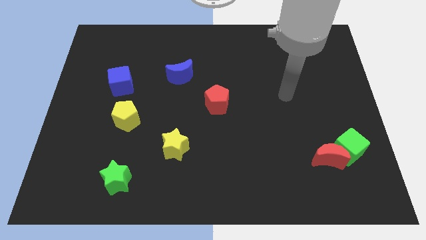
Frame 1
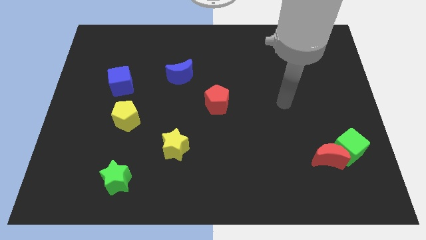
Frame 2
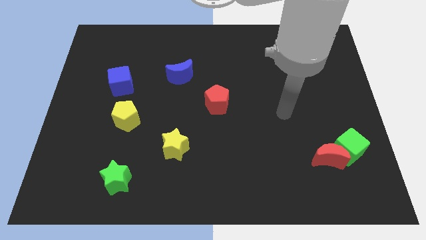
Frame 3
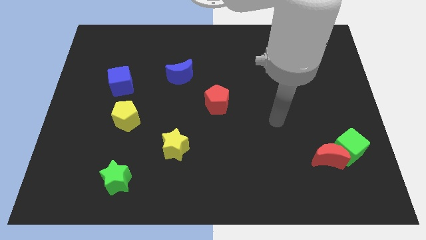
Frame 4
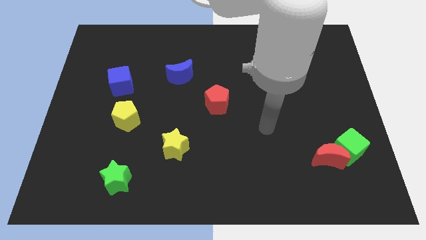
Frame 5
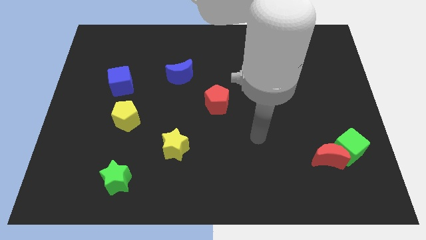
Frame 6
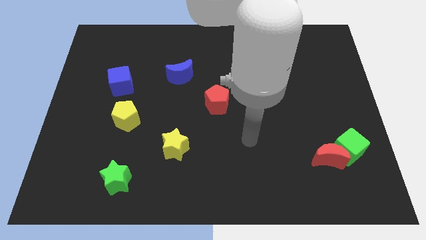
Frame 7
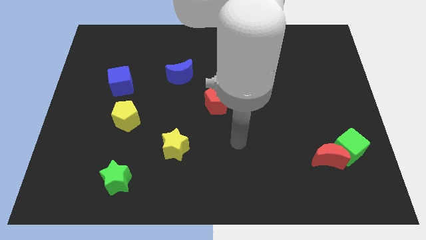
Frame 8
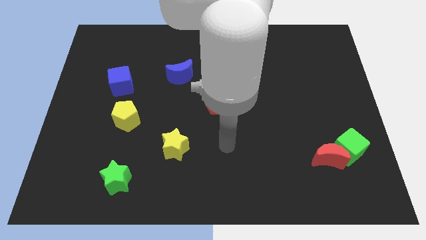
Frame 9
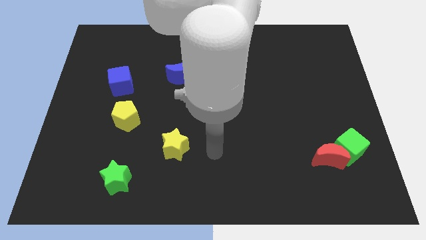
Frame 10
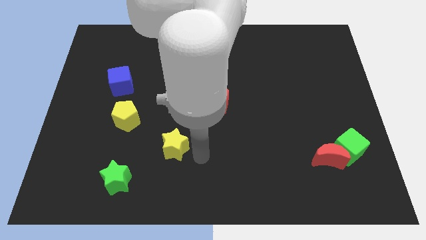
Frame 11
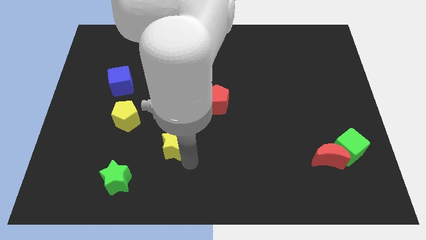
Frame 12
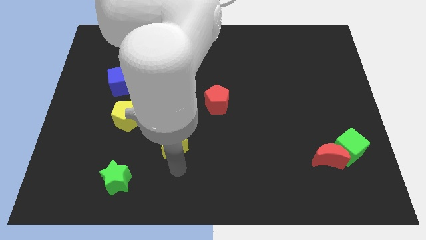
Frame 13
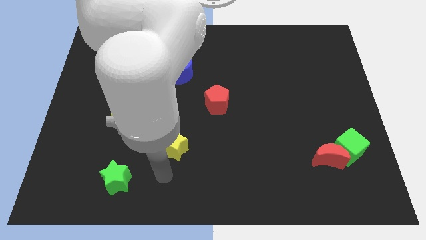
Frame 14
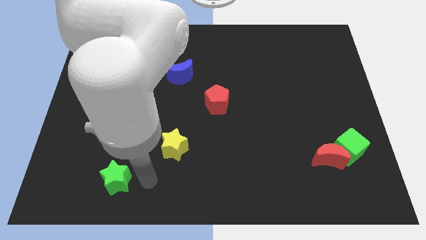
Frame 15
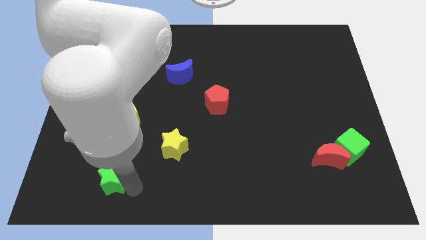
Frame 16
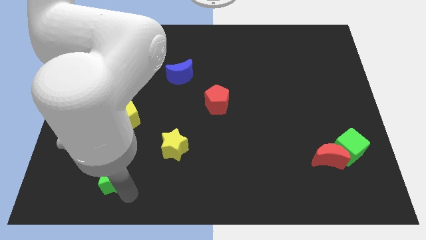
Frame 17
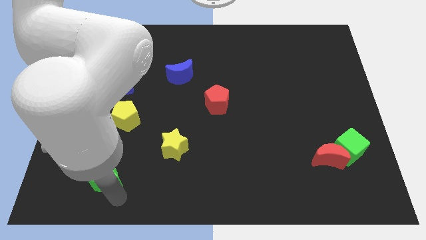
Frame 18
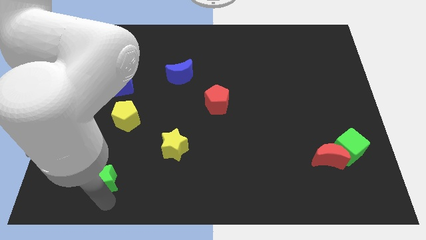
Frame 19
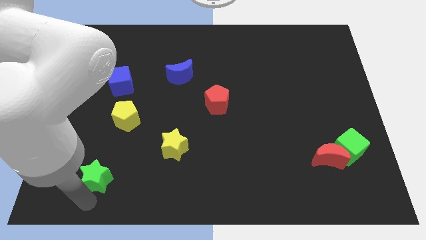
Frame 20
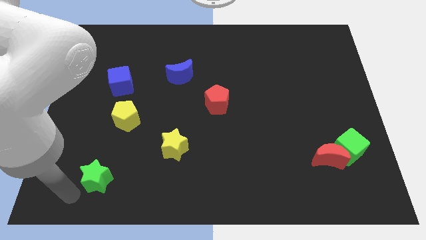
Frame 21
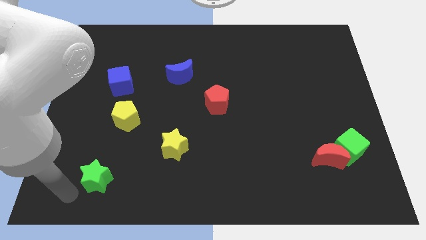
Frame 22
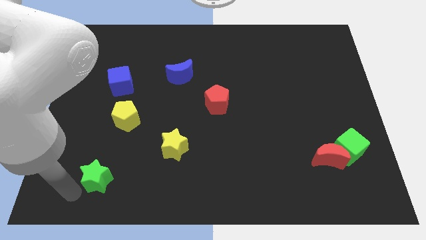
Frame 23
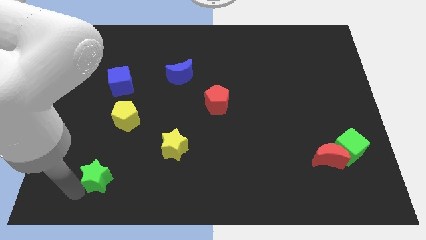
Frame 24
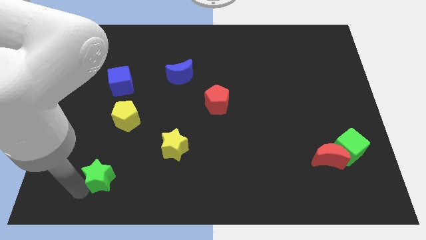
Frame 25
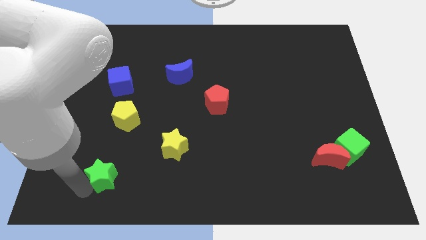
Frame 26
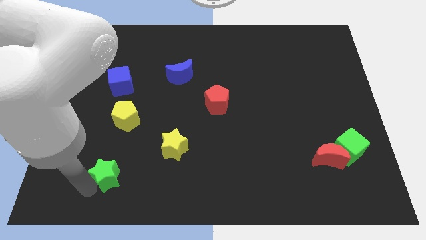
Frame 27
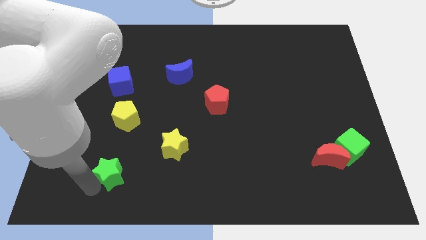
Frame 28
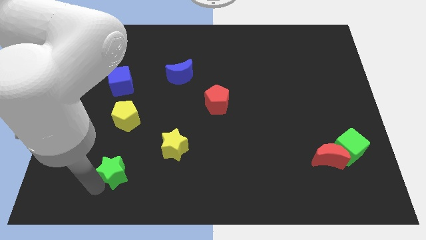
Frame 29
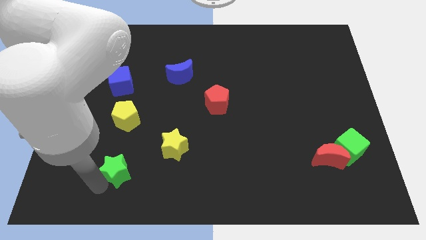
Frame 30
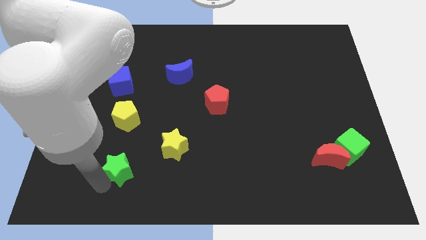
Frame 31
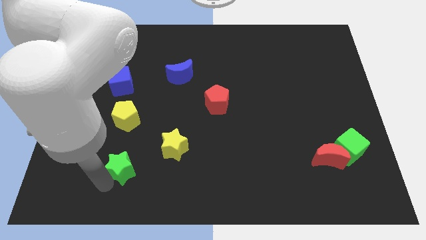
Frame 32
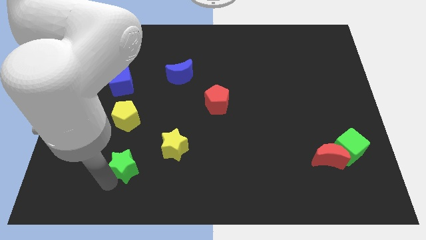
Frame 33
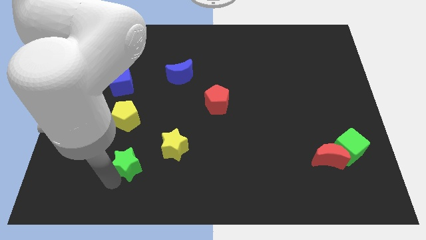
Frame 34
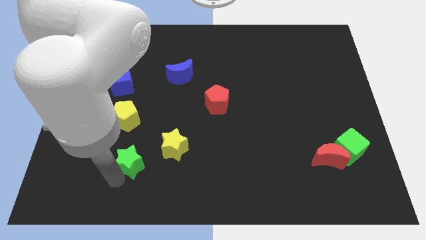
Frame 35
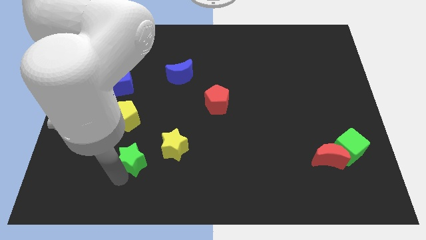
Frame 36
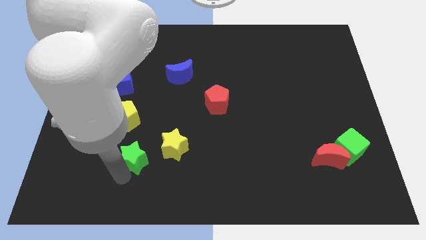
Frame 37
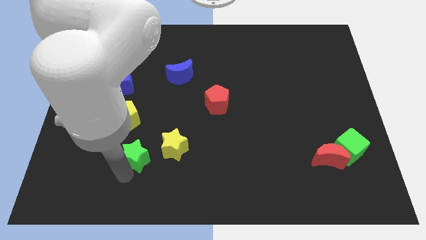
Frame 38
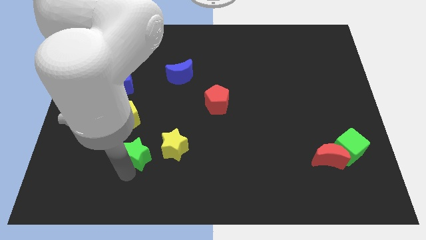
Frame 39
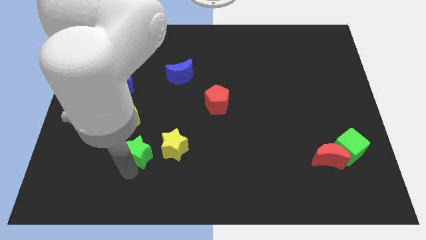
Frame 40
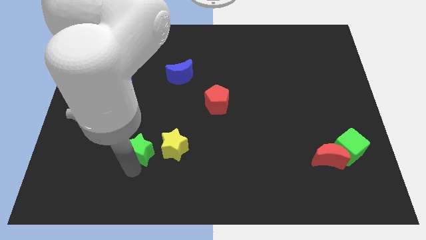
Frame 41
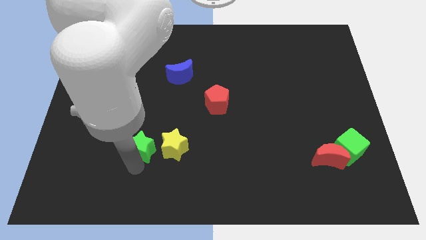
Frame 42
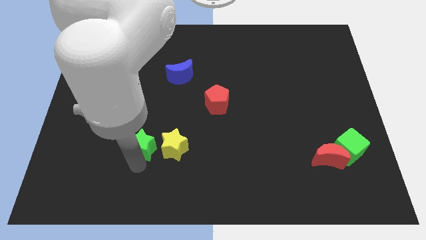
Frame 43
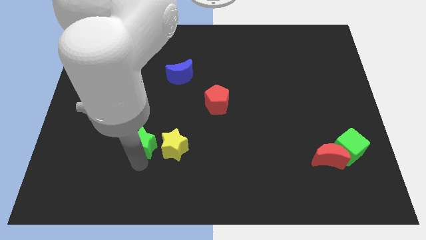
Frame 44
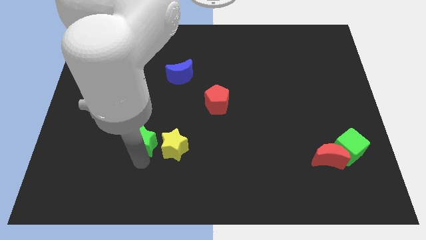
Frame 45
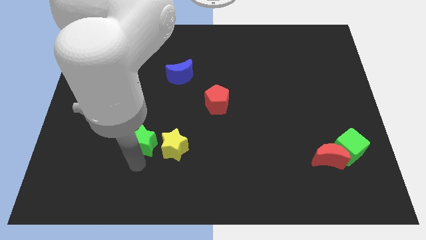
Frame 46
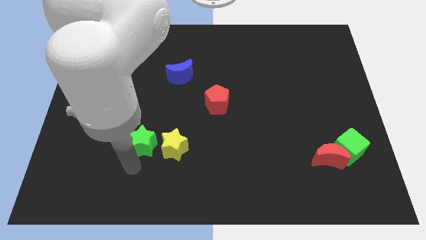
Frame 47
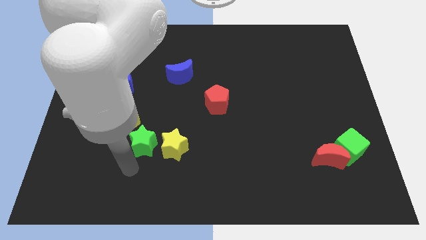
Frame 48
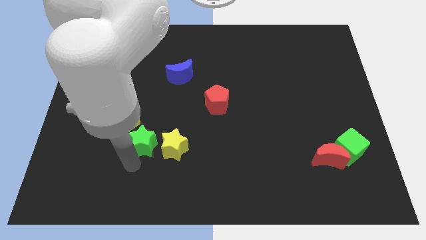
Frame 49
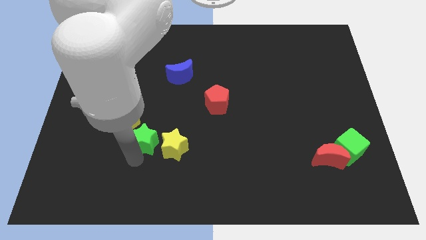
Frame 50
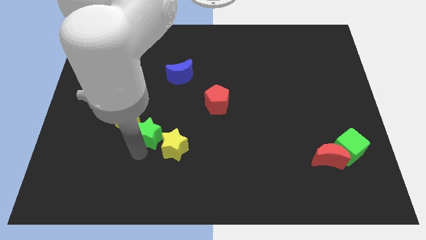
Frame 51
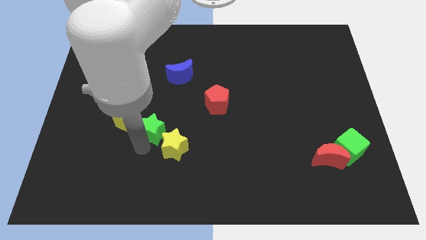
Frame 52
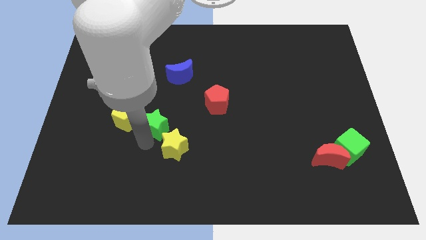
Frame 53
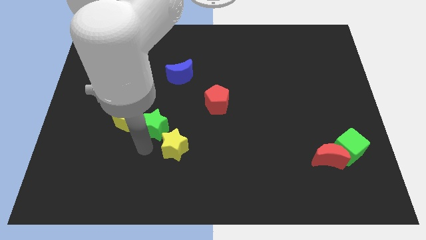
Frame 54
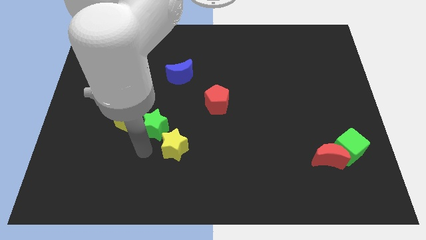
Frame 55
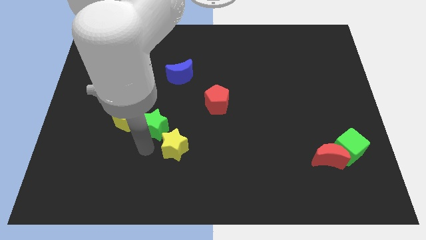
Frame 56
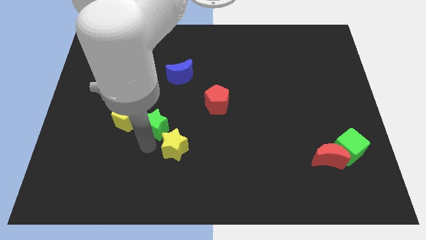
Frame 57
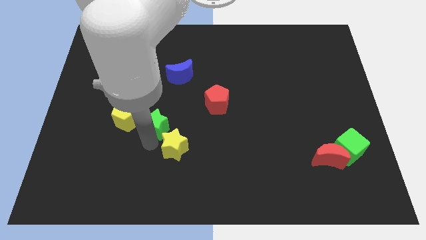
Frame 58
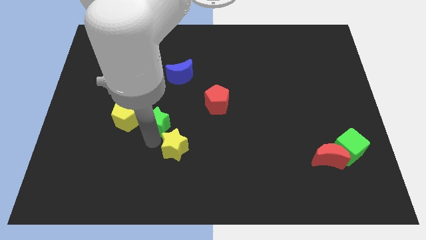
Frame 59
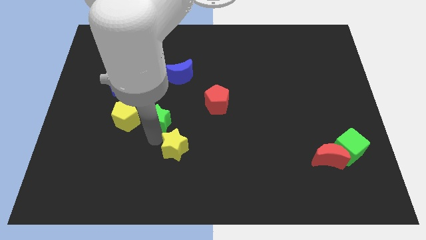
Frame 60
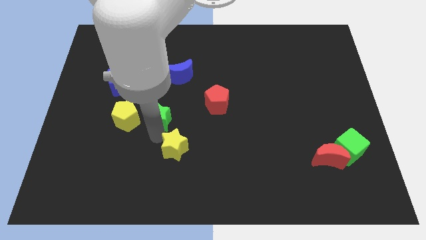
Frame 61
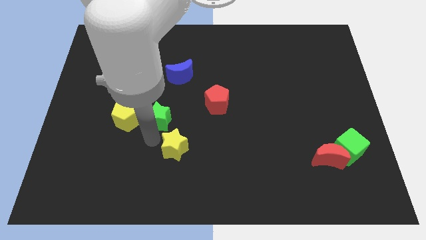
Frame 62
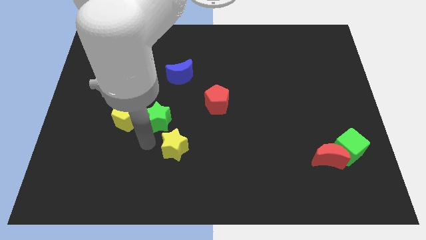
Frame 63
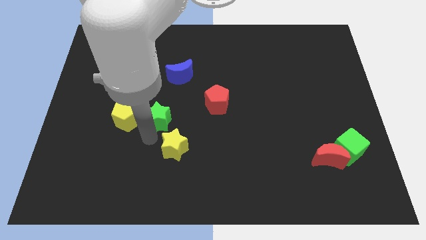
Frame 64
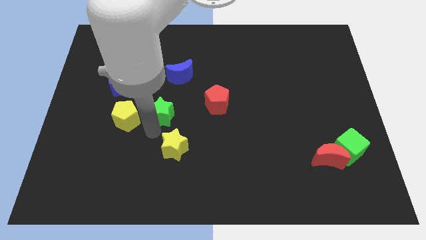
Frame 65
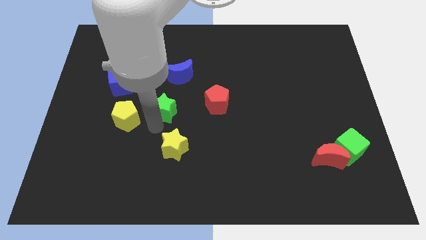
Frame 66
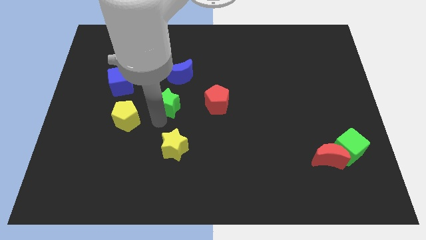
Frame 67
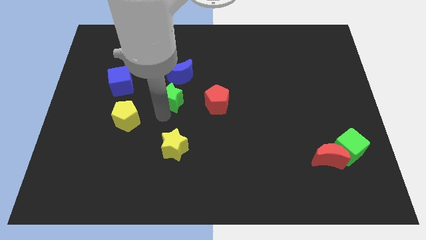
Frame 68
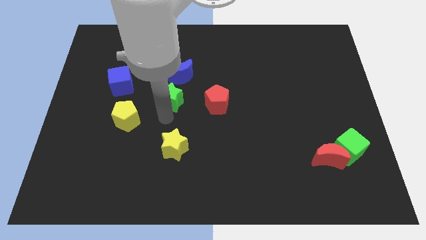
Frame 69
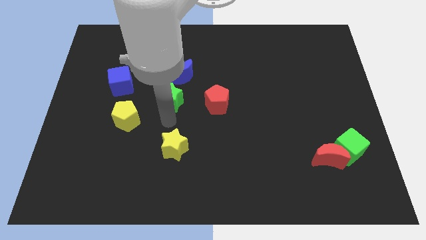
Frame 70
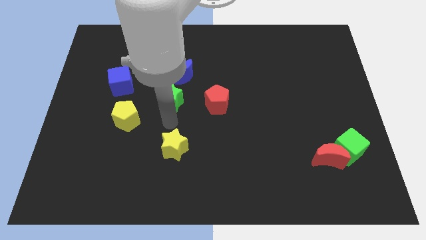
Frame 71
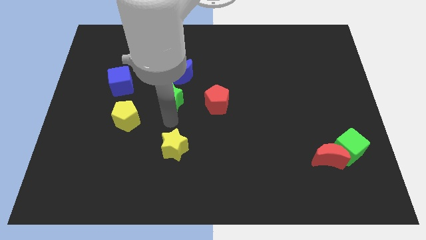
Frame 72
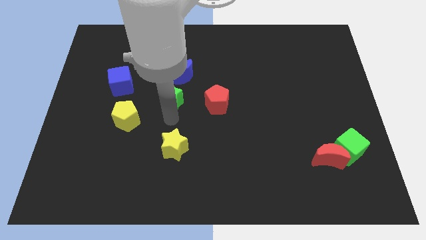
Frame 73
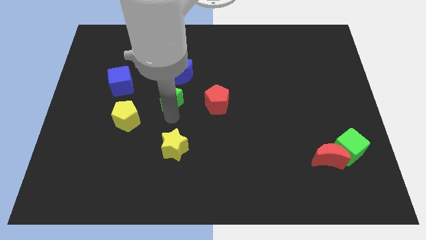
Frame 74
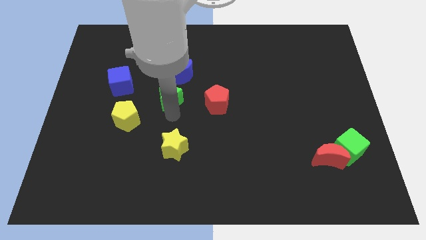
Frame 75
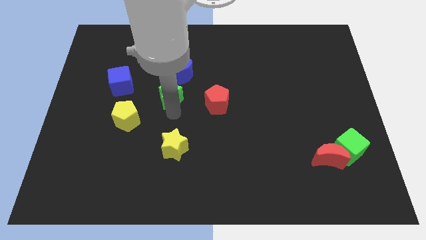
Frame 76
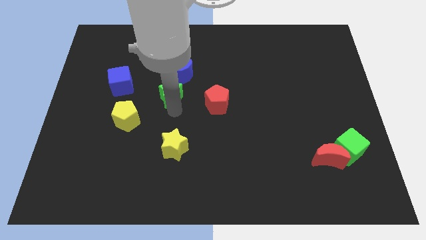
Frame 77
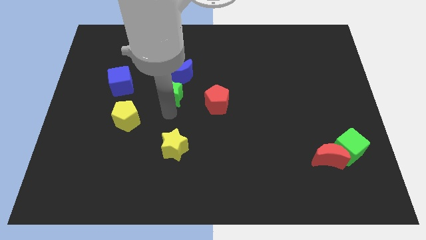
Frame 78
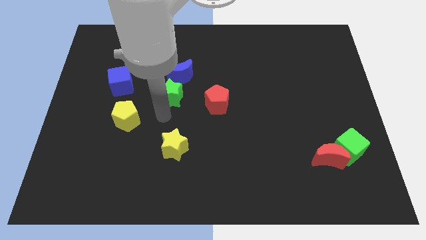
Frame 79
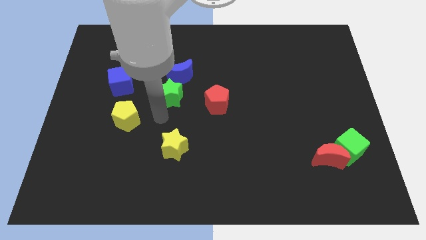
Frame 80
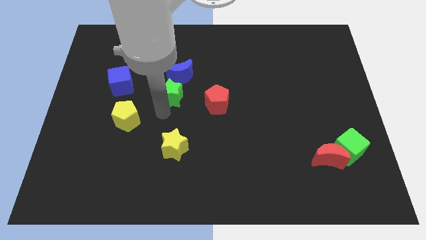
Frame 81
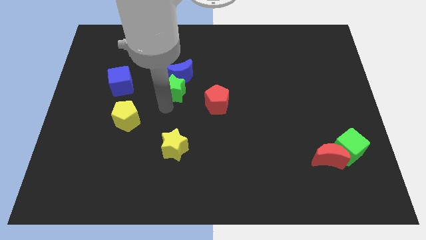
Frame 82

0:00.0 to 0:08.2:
push the green star next to the blue moon
